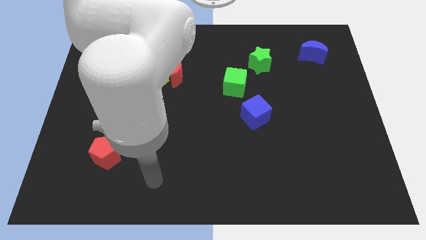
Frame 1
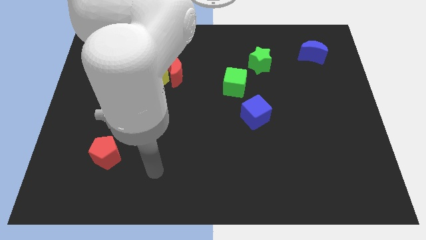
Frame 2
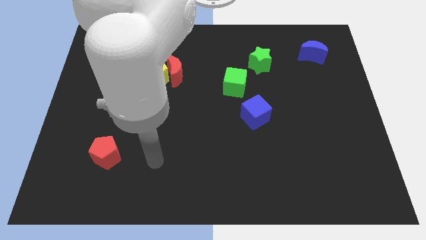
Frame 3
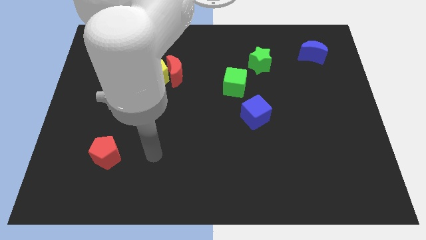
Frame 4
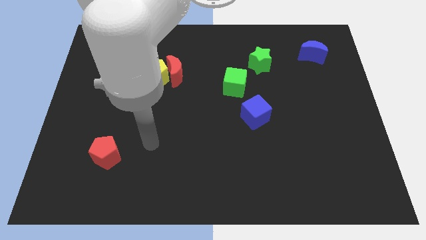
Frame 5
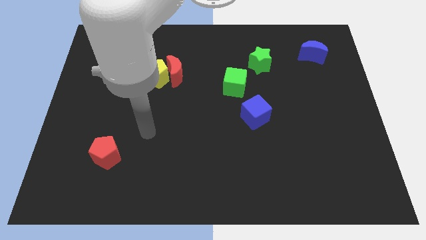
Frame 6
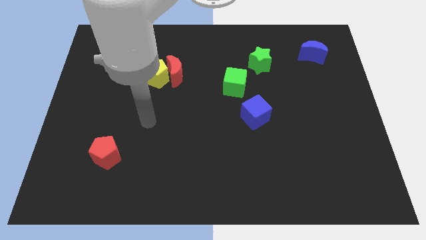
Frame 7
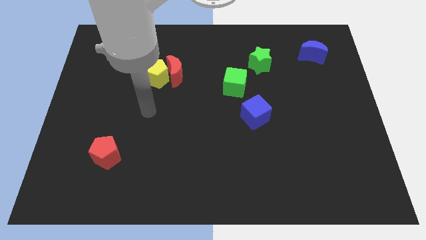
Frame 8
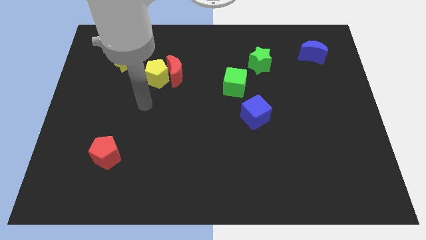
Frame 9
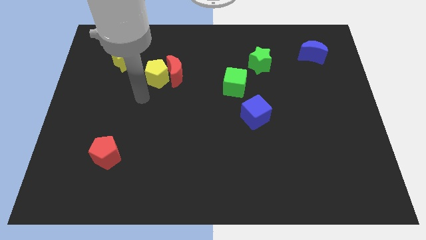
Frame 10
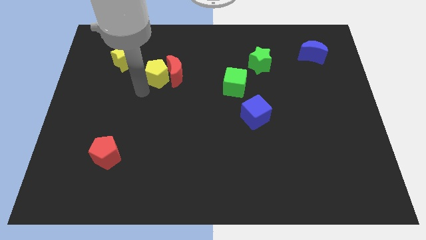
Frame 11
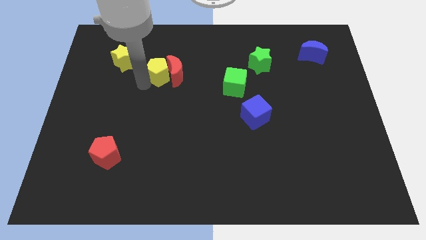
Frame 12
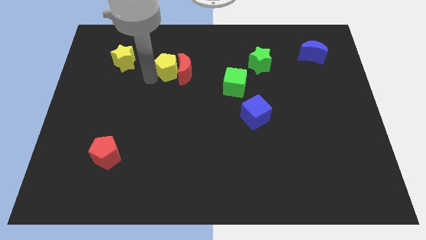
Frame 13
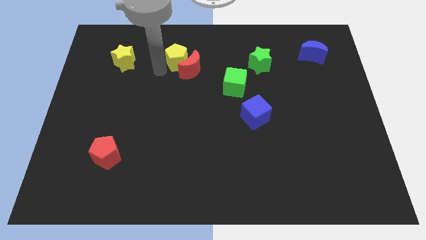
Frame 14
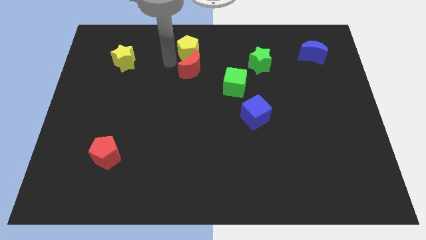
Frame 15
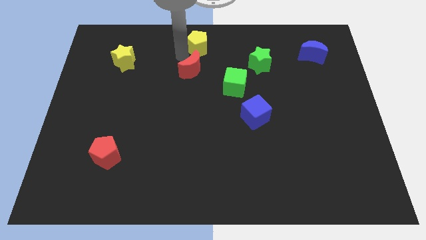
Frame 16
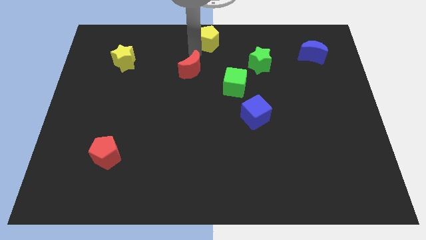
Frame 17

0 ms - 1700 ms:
pull the red moon apart from the yellow pentagon

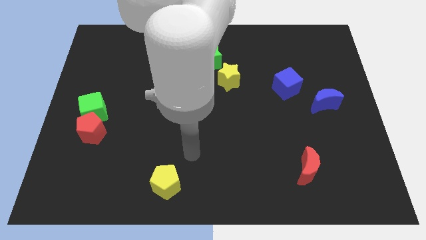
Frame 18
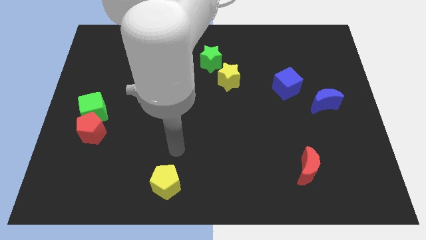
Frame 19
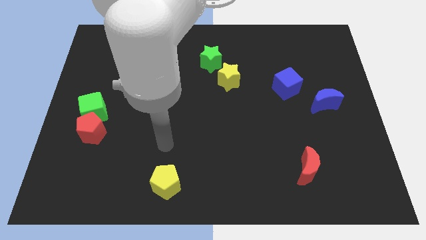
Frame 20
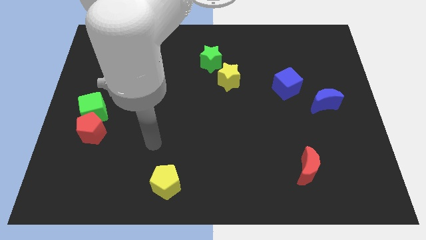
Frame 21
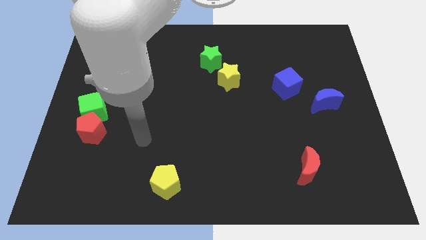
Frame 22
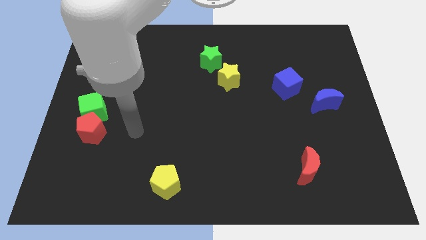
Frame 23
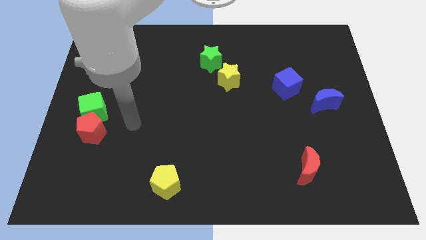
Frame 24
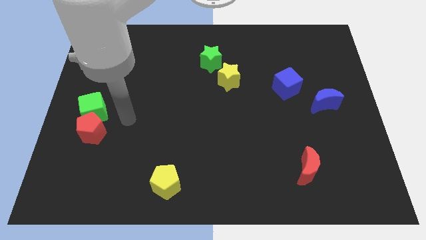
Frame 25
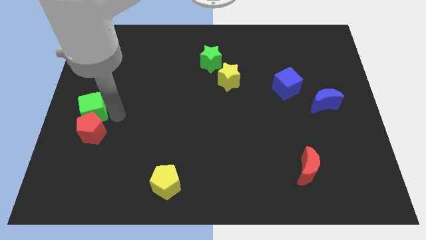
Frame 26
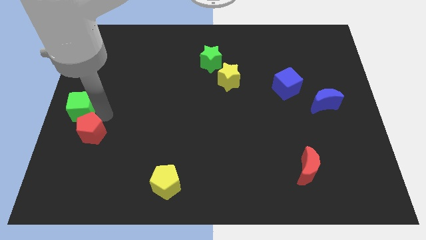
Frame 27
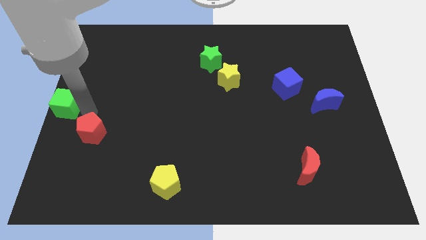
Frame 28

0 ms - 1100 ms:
separate the red pentagon from the green cube

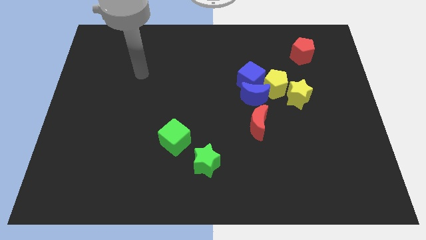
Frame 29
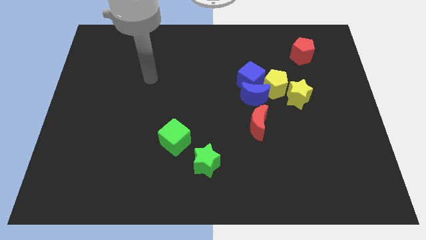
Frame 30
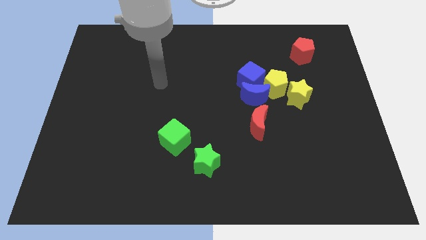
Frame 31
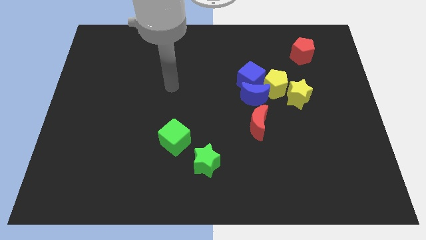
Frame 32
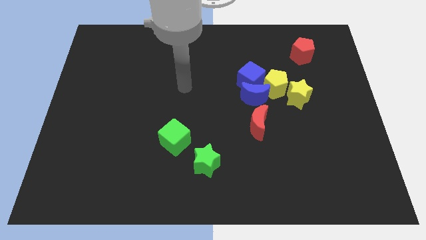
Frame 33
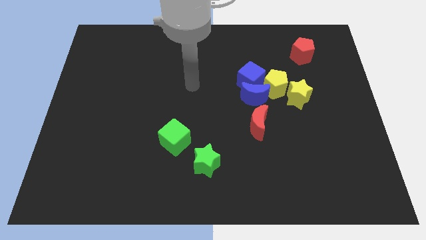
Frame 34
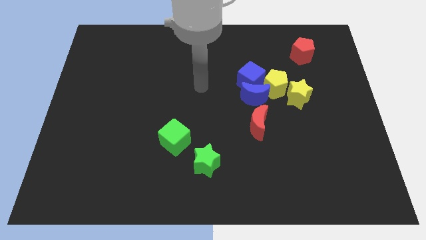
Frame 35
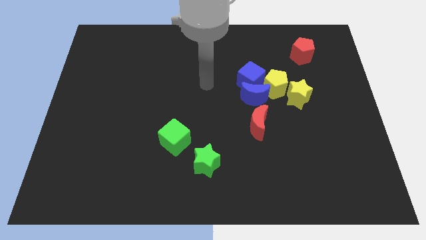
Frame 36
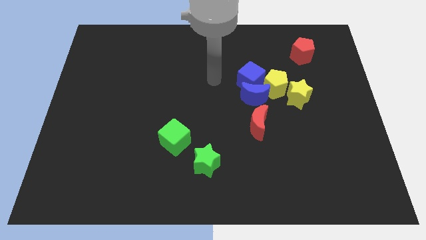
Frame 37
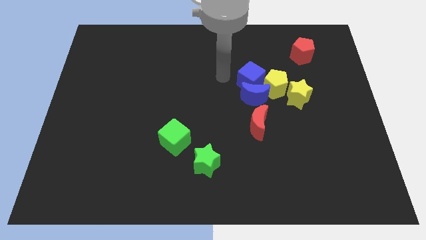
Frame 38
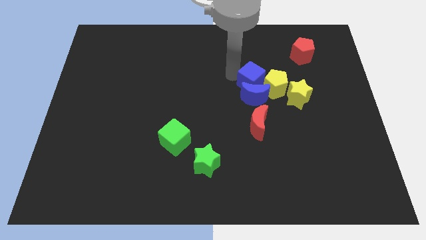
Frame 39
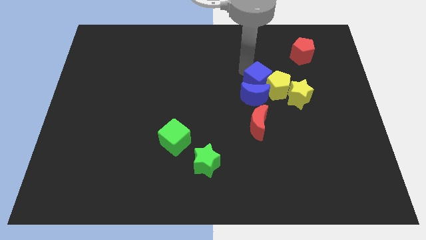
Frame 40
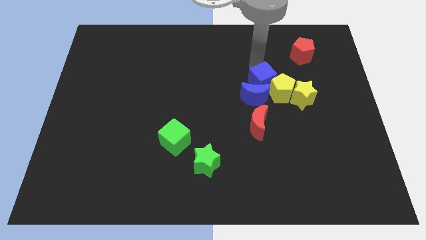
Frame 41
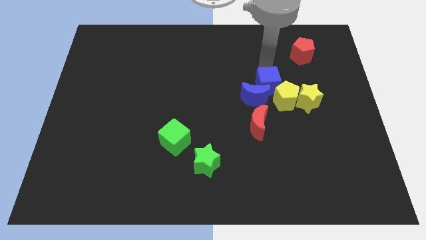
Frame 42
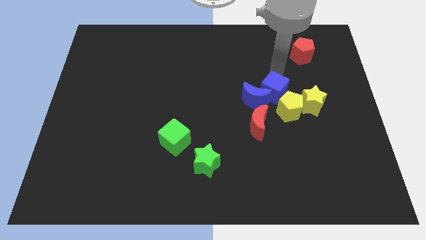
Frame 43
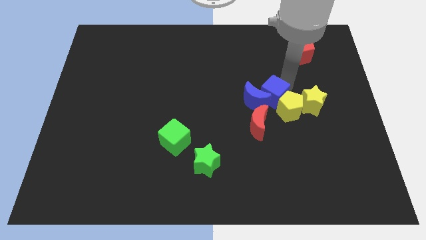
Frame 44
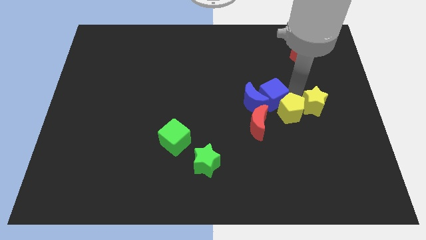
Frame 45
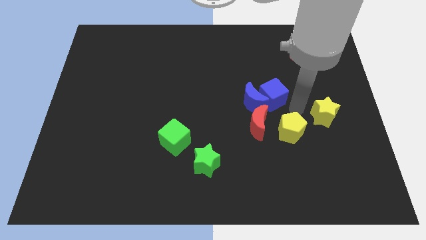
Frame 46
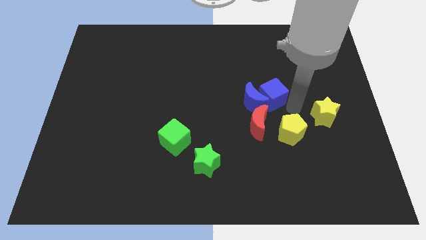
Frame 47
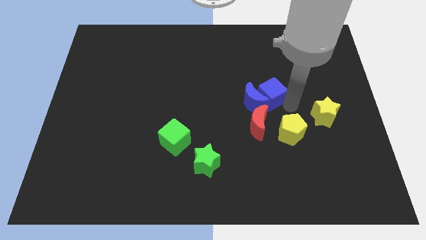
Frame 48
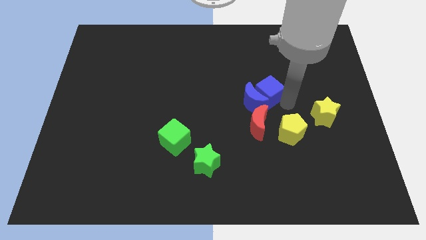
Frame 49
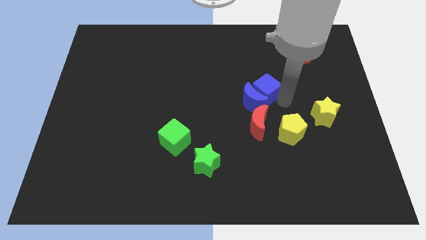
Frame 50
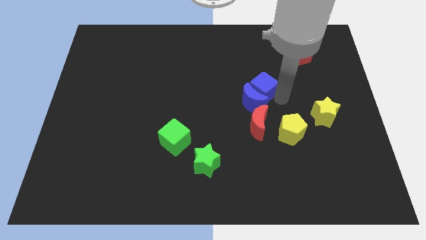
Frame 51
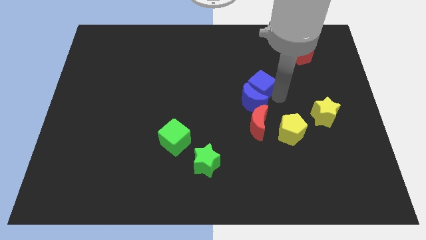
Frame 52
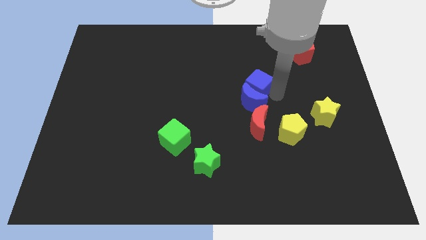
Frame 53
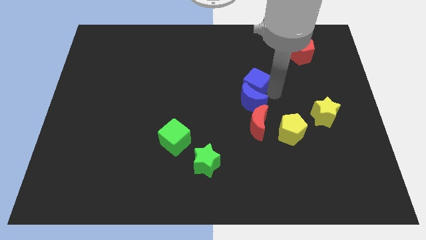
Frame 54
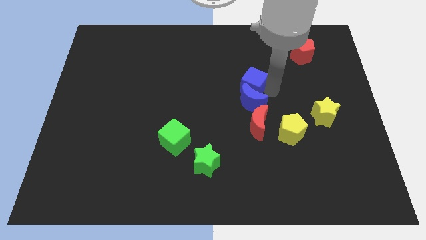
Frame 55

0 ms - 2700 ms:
pull the blue cube apart from the blue moon and yellow pentagon

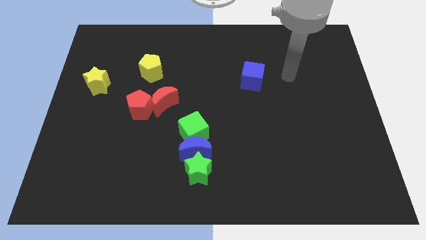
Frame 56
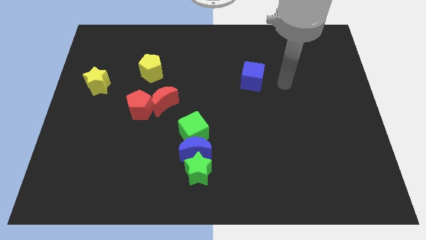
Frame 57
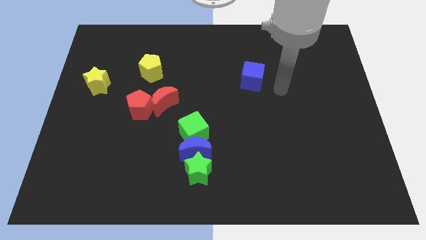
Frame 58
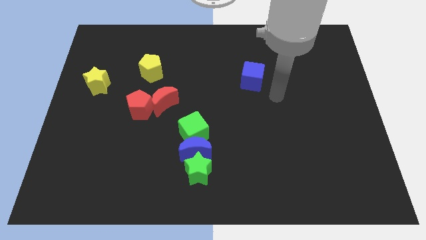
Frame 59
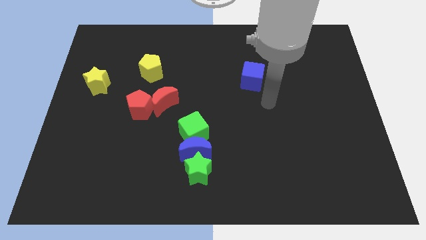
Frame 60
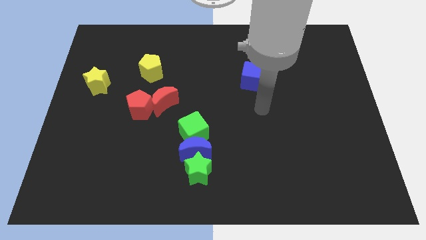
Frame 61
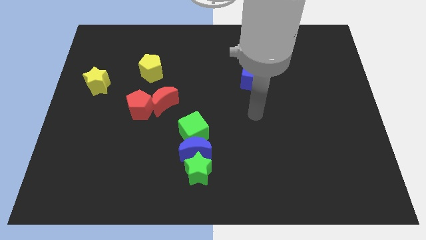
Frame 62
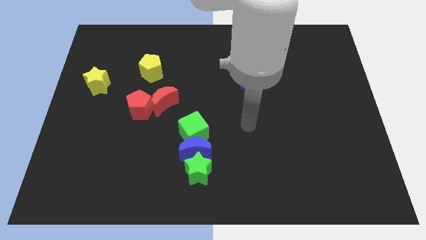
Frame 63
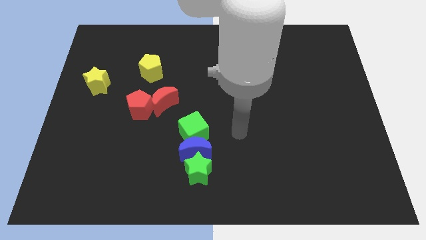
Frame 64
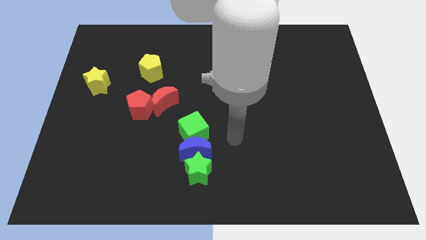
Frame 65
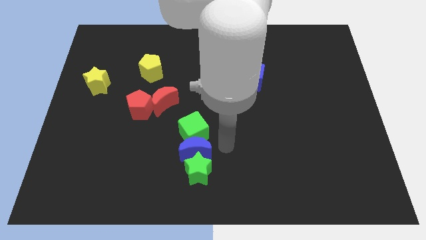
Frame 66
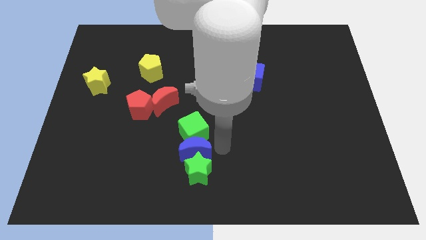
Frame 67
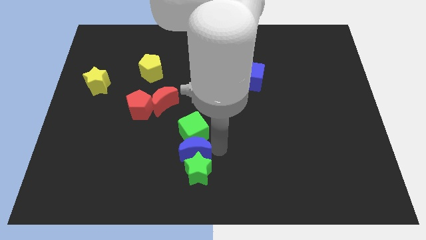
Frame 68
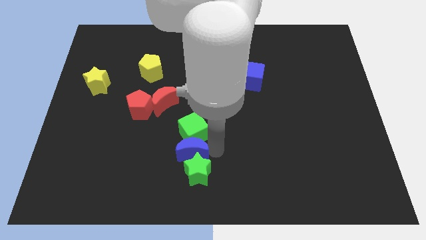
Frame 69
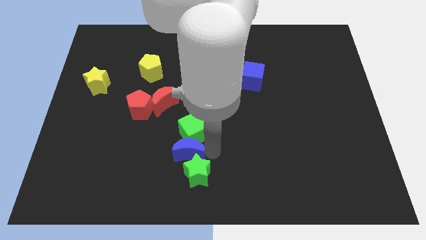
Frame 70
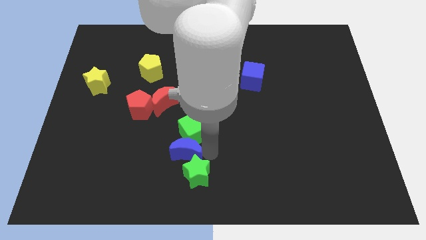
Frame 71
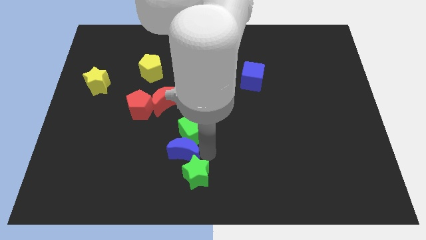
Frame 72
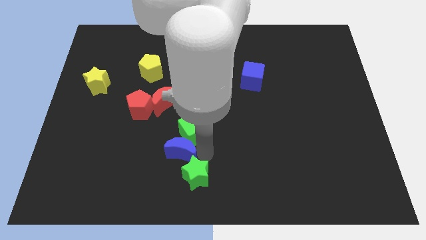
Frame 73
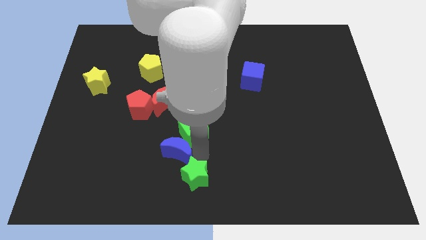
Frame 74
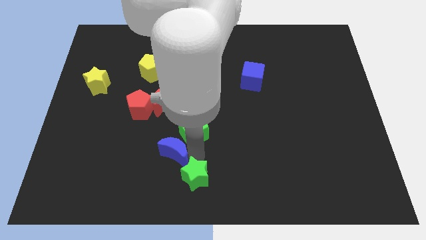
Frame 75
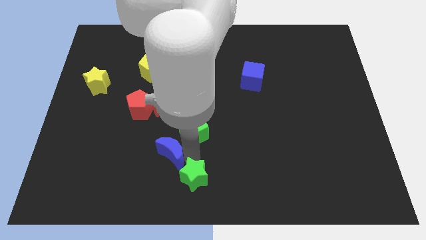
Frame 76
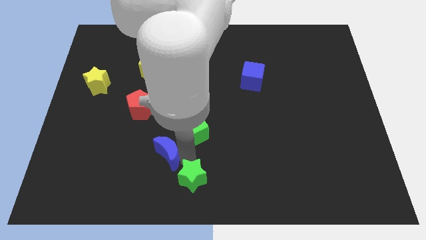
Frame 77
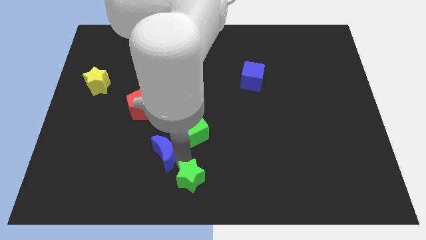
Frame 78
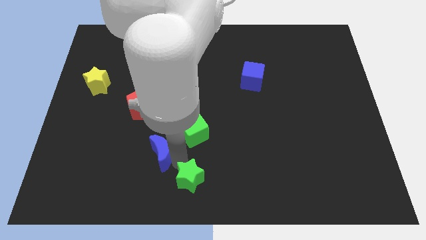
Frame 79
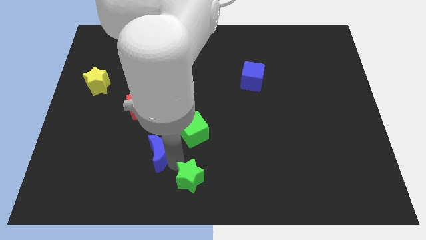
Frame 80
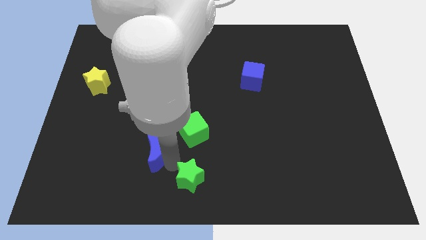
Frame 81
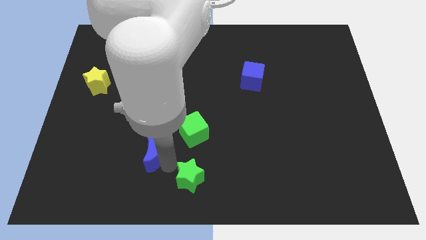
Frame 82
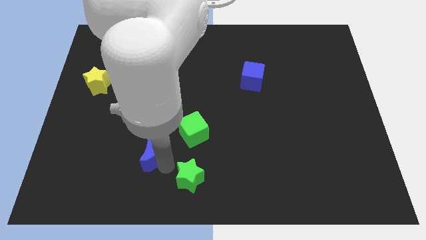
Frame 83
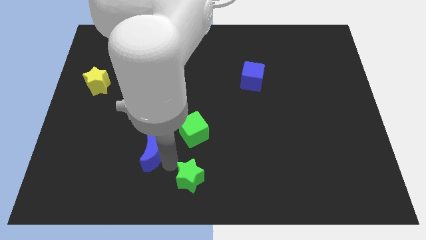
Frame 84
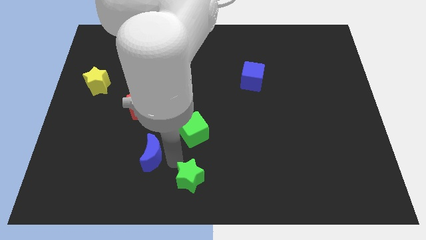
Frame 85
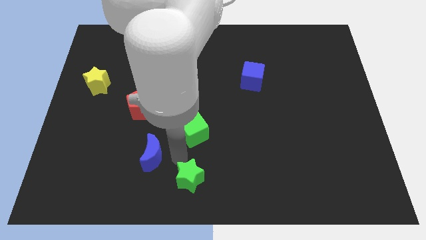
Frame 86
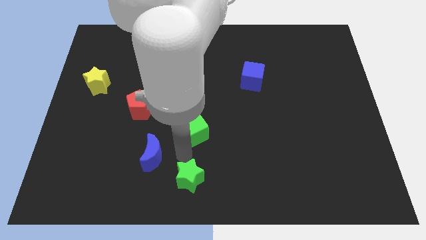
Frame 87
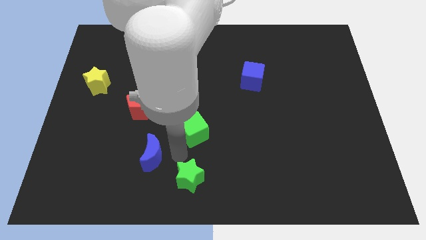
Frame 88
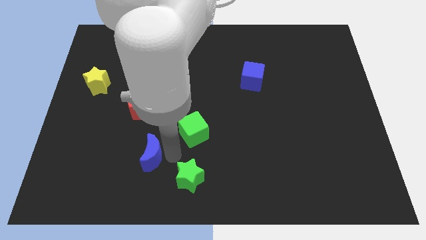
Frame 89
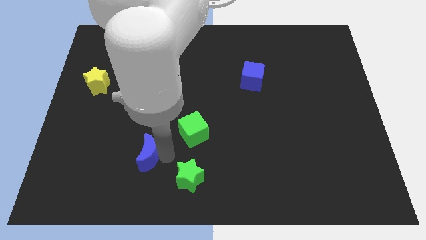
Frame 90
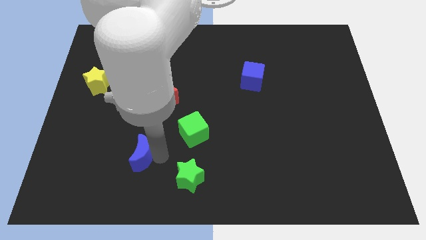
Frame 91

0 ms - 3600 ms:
move the blue moon away from the green star and green cube
